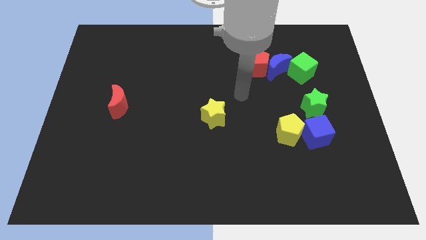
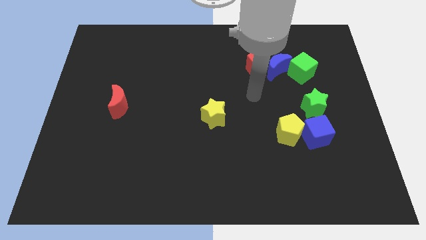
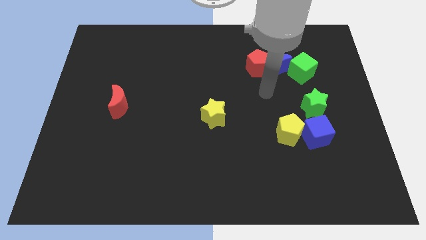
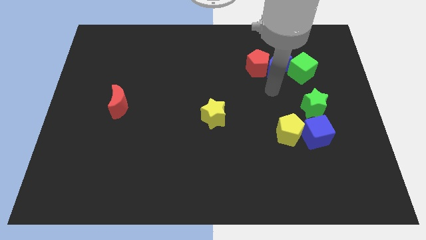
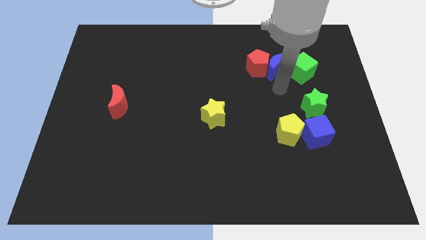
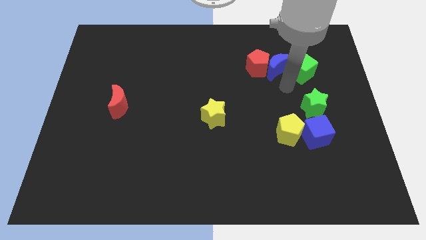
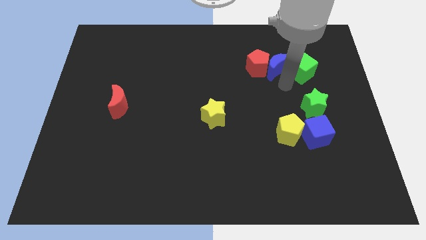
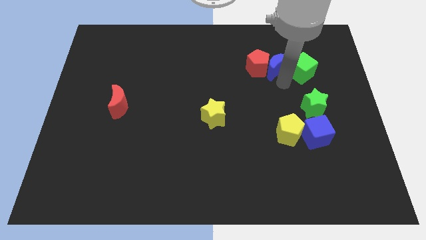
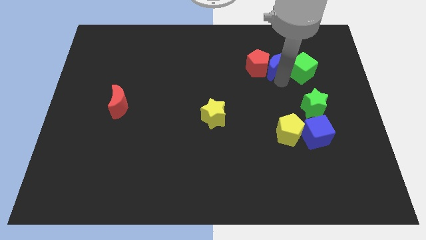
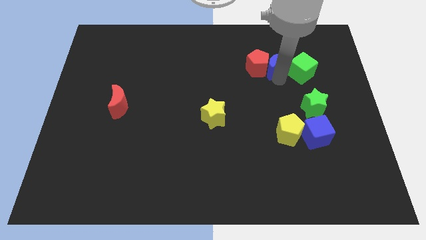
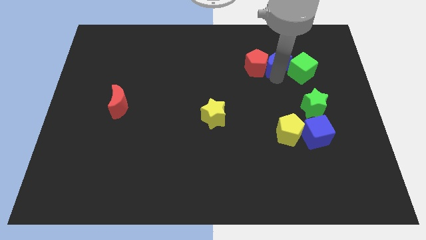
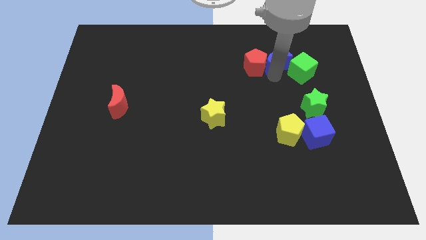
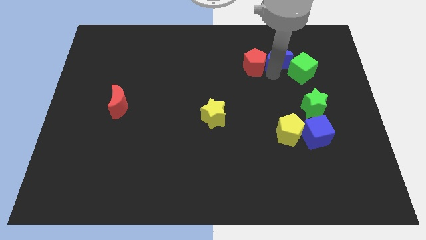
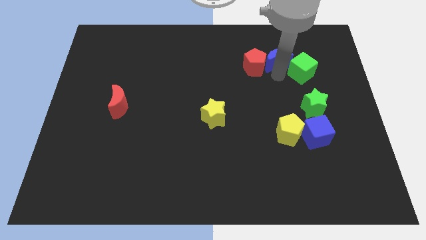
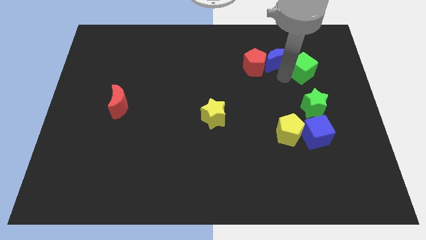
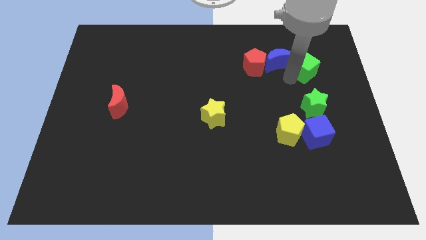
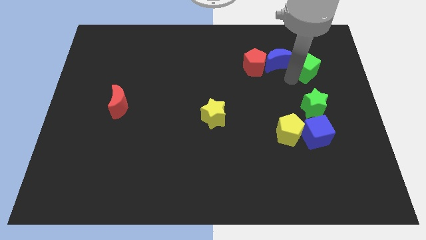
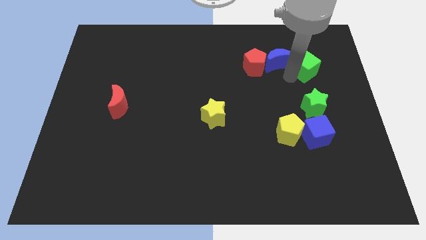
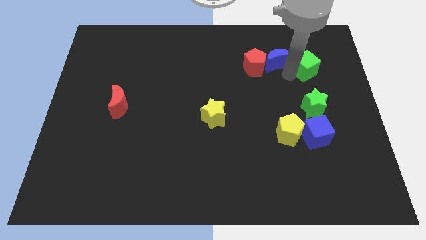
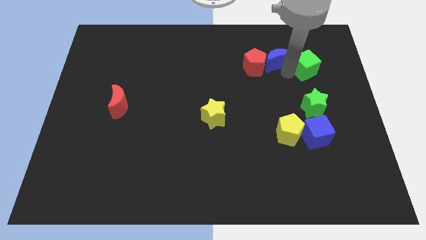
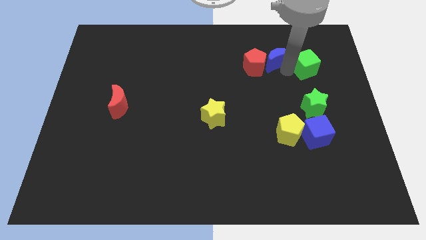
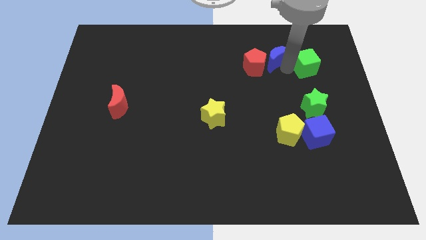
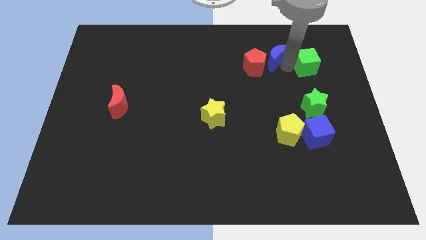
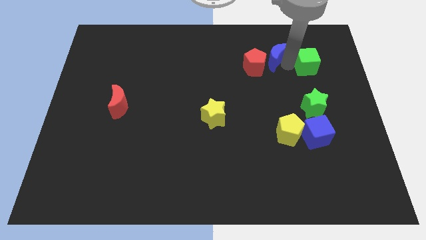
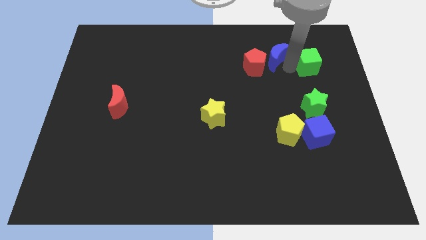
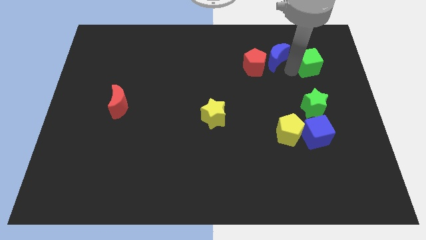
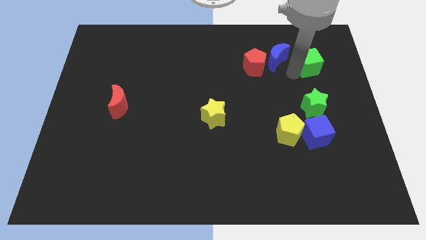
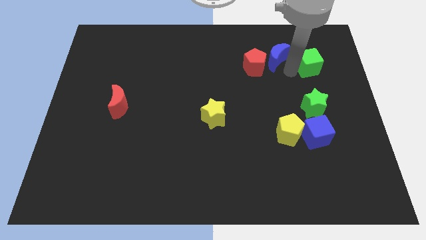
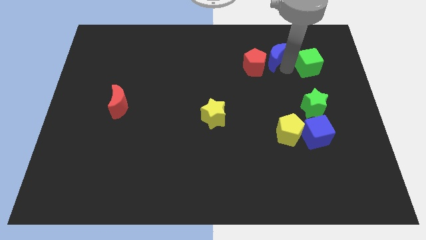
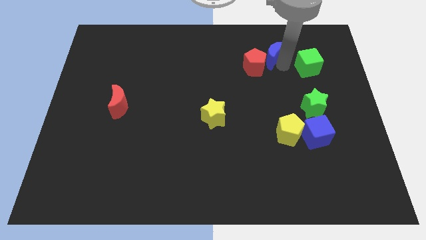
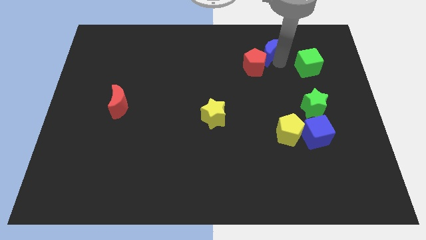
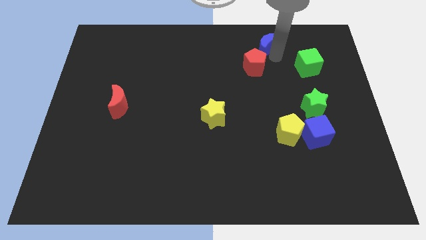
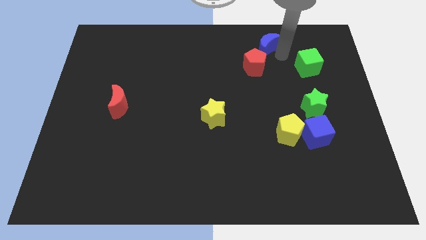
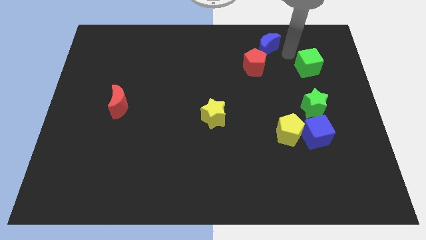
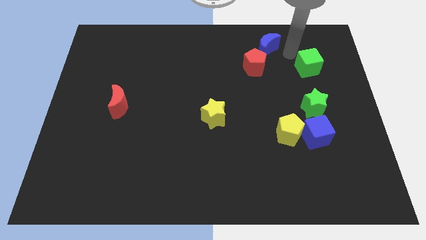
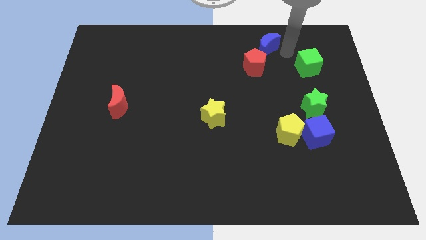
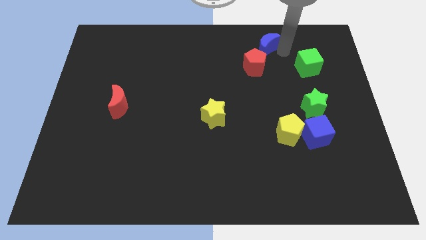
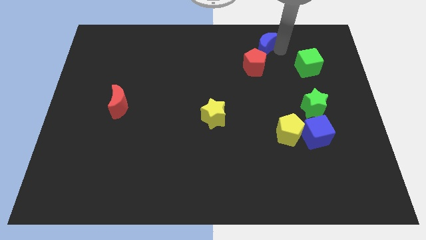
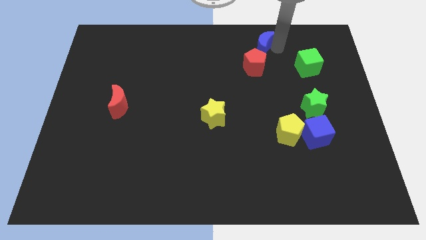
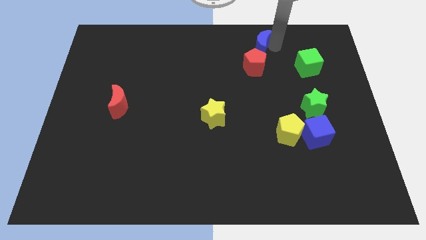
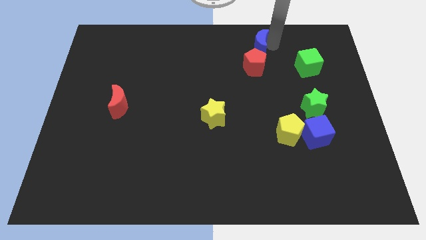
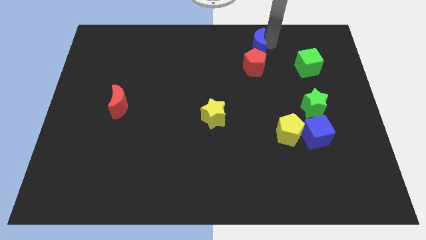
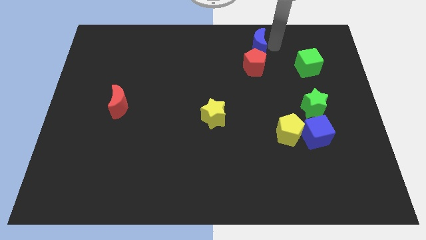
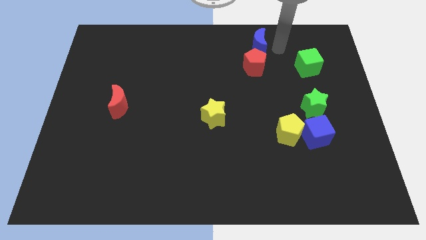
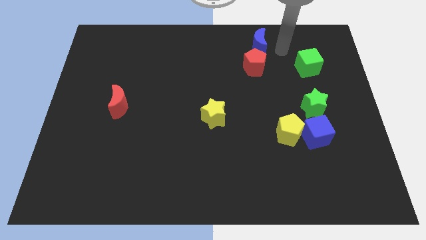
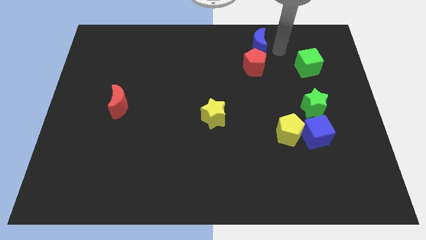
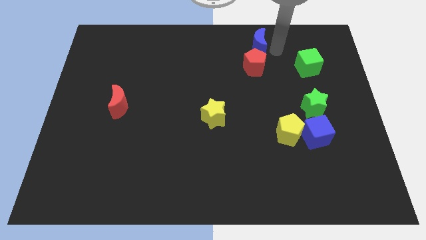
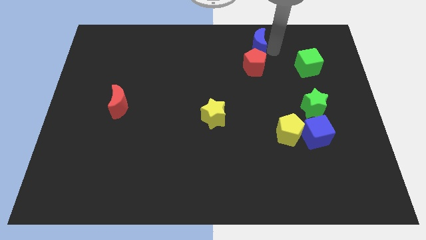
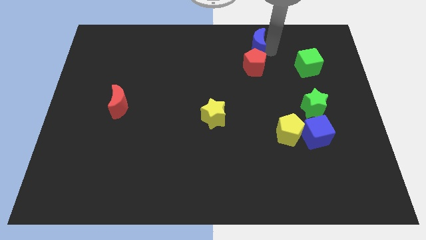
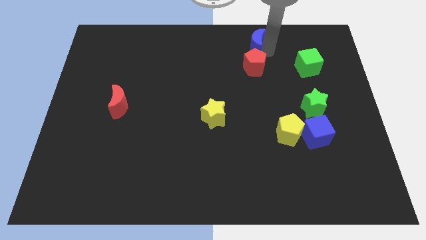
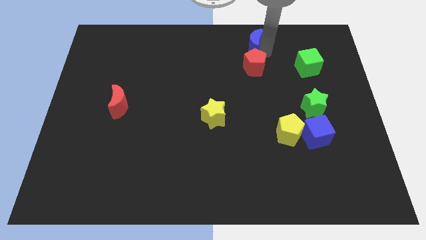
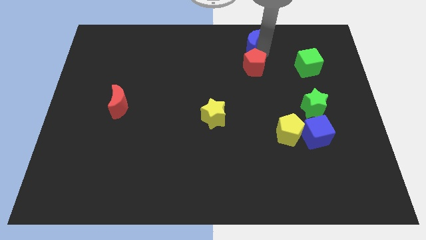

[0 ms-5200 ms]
push the blue moon to the top
